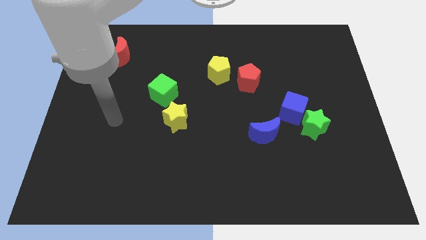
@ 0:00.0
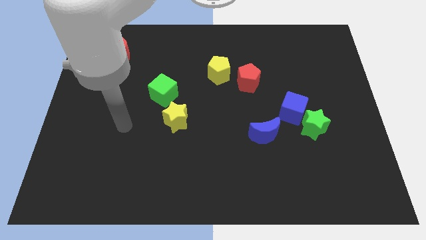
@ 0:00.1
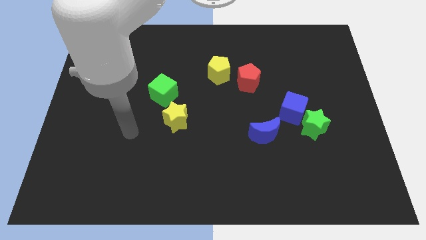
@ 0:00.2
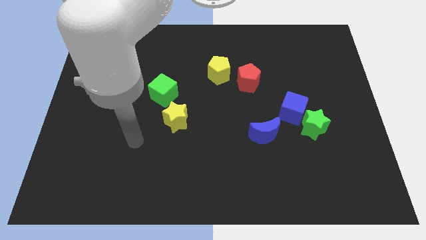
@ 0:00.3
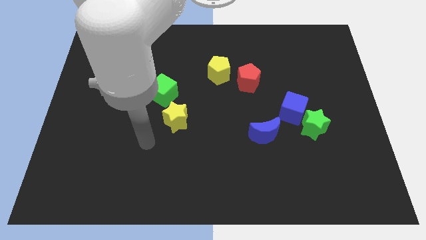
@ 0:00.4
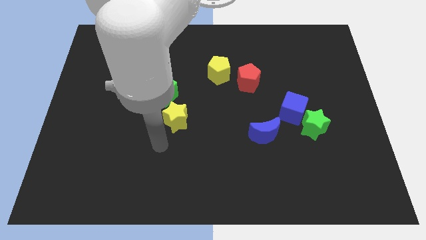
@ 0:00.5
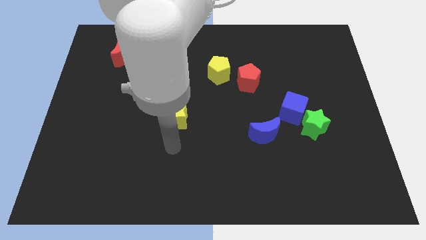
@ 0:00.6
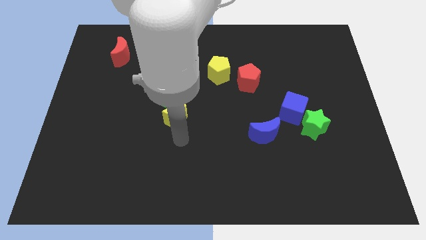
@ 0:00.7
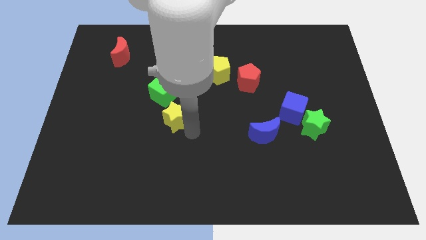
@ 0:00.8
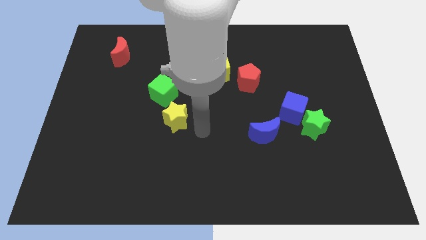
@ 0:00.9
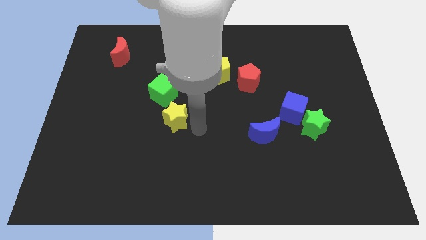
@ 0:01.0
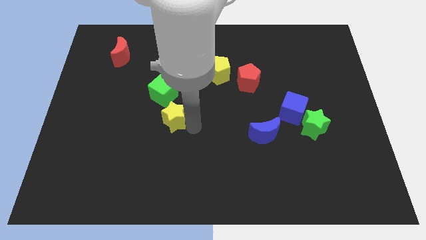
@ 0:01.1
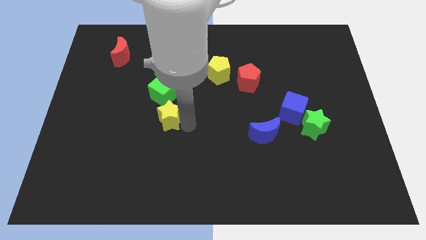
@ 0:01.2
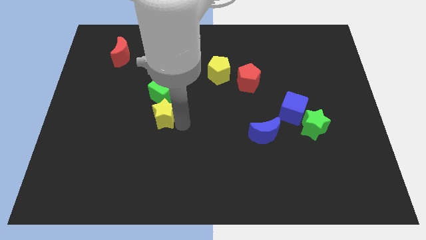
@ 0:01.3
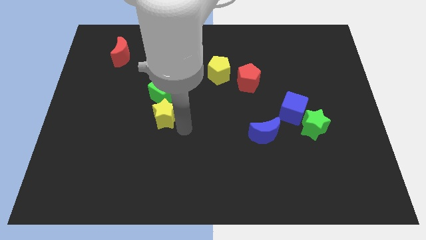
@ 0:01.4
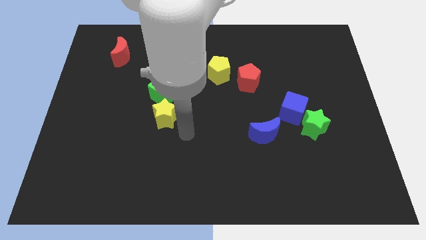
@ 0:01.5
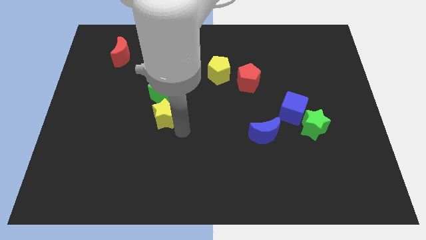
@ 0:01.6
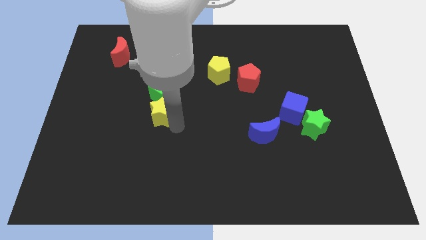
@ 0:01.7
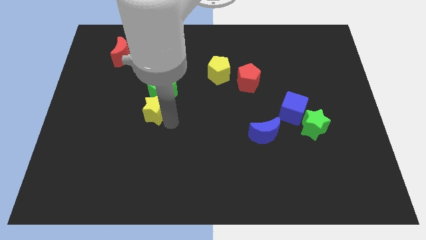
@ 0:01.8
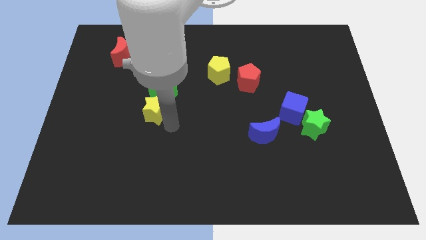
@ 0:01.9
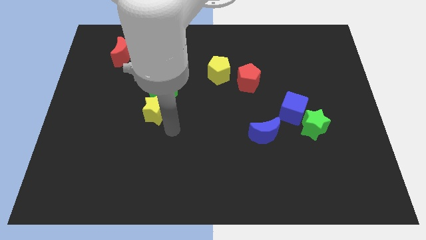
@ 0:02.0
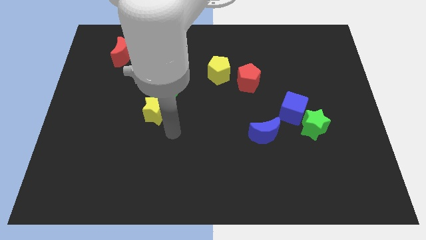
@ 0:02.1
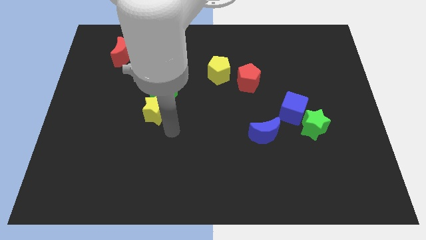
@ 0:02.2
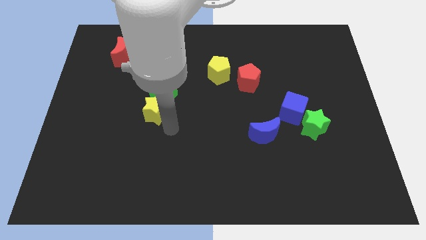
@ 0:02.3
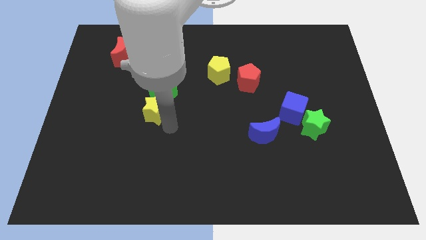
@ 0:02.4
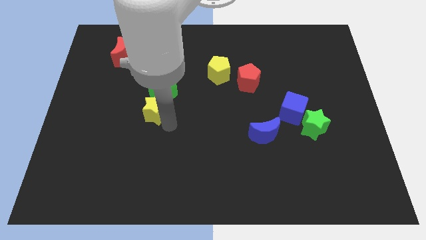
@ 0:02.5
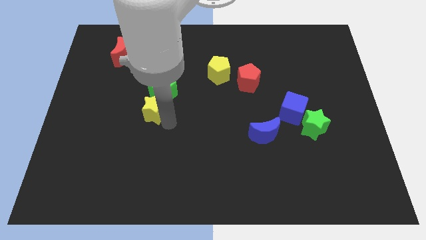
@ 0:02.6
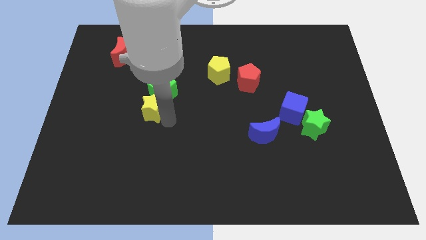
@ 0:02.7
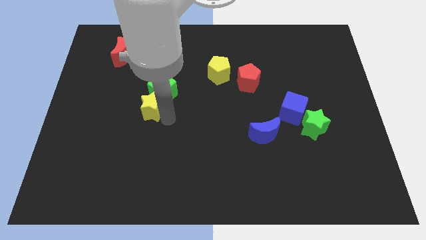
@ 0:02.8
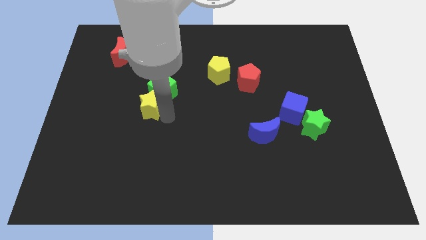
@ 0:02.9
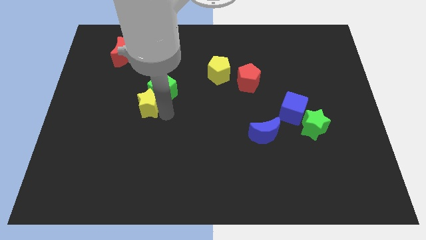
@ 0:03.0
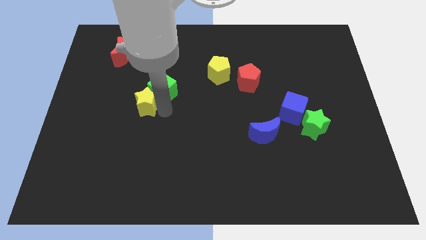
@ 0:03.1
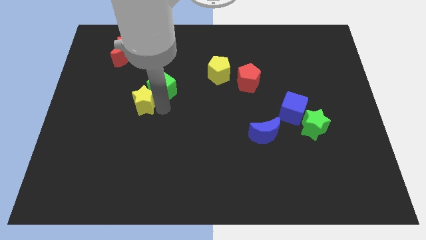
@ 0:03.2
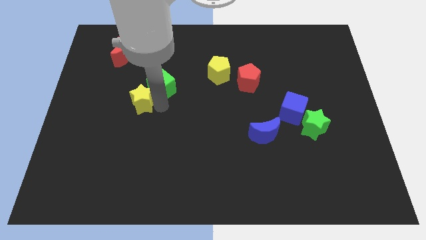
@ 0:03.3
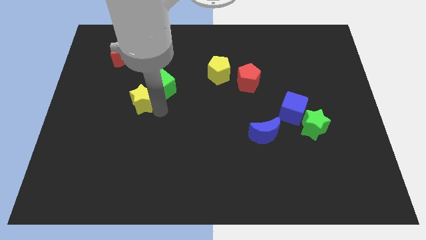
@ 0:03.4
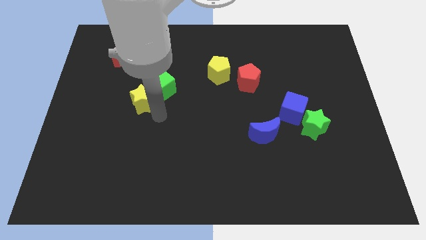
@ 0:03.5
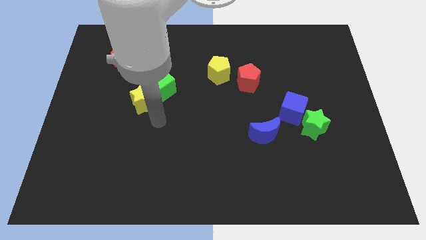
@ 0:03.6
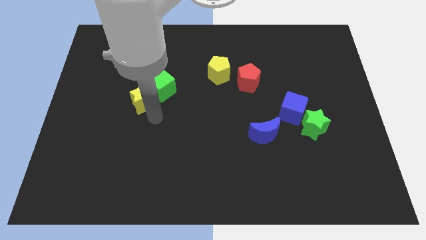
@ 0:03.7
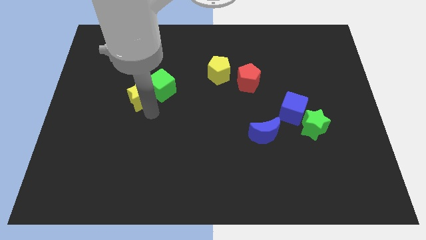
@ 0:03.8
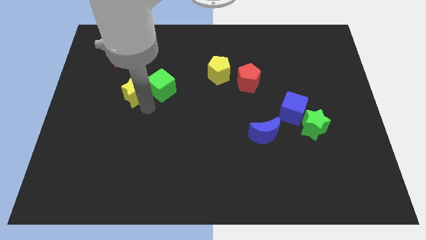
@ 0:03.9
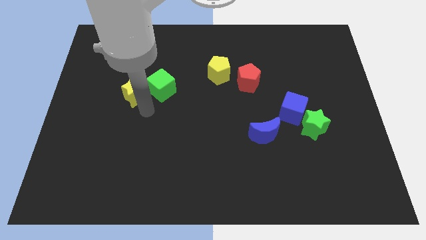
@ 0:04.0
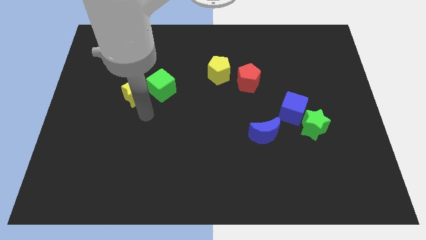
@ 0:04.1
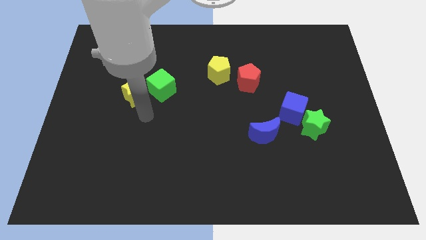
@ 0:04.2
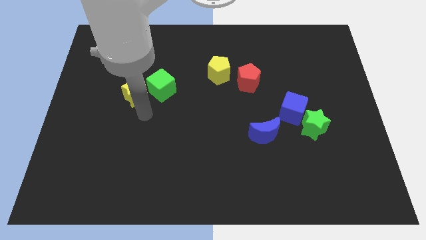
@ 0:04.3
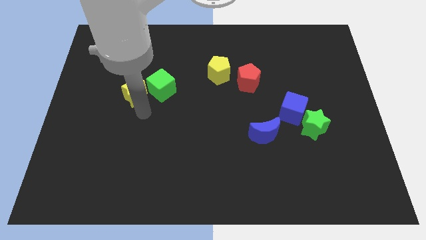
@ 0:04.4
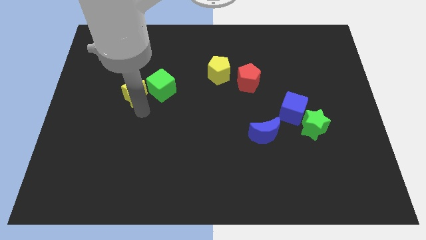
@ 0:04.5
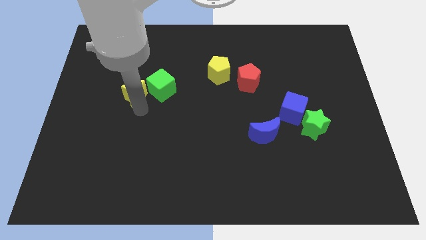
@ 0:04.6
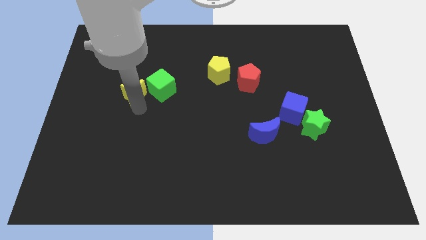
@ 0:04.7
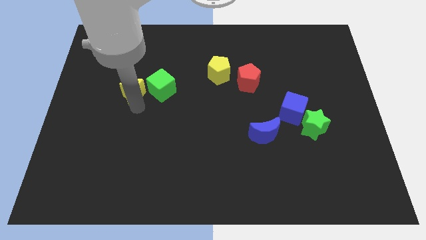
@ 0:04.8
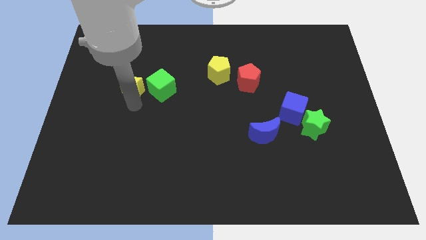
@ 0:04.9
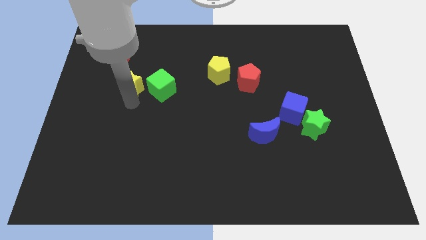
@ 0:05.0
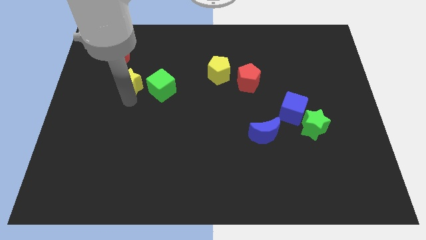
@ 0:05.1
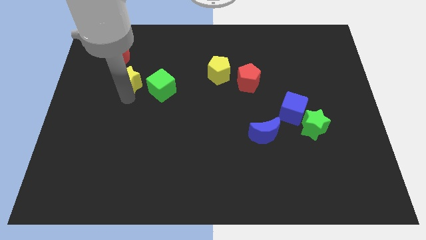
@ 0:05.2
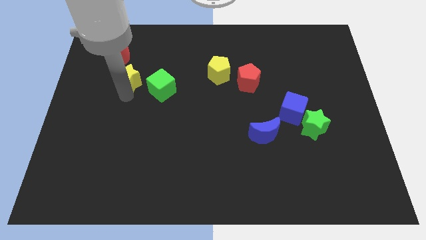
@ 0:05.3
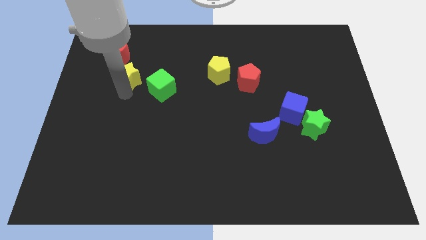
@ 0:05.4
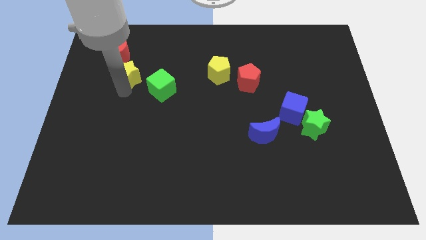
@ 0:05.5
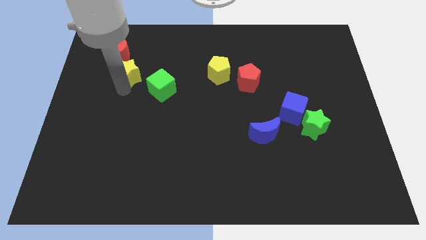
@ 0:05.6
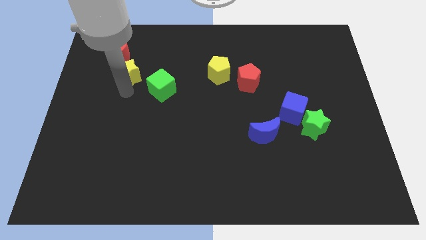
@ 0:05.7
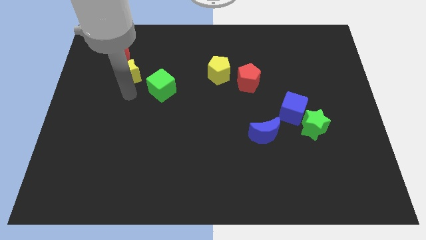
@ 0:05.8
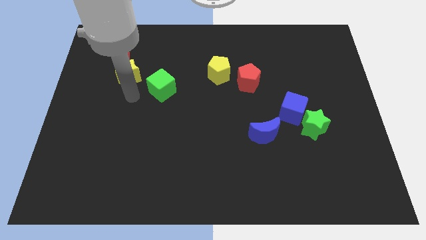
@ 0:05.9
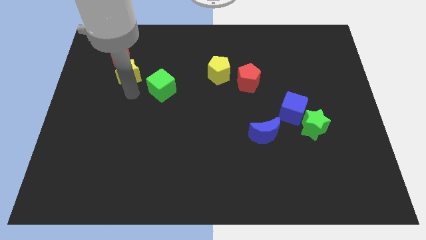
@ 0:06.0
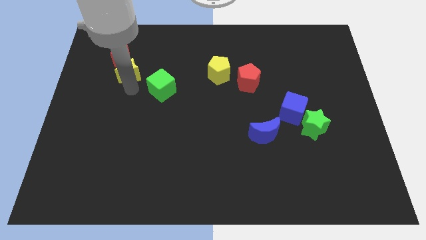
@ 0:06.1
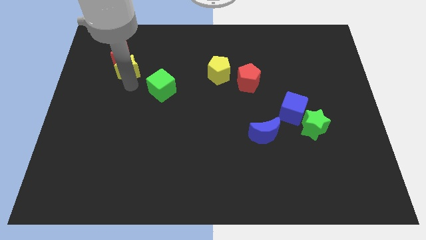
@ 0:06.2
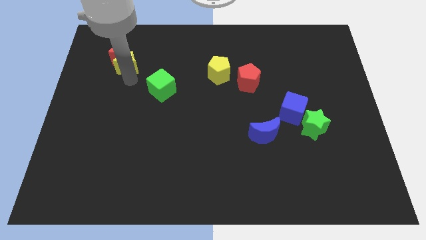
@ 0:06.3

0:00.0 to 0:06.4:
put the yellow star to the red moon

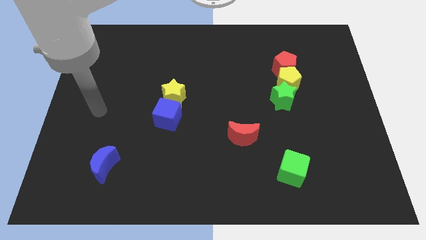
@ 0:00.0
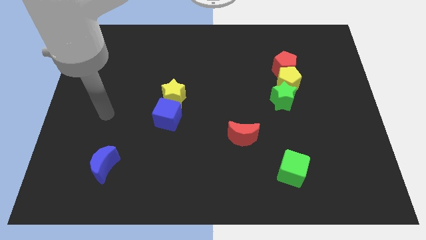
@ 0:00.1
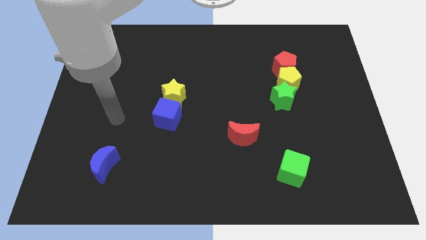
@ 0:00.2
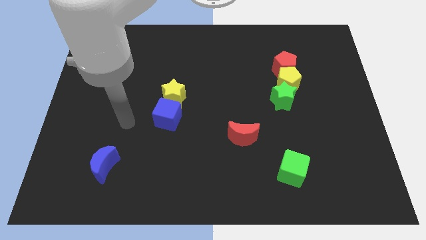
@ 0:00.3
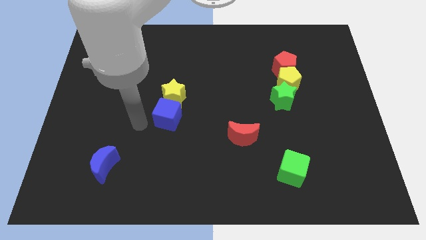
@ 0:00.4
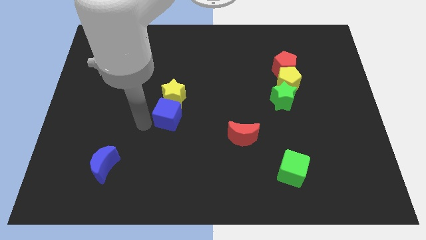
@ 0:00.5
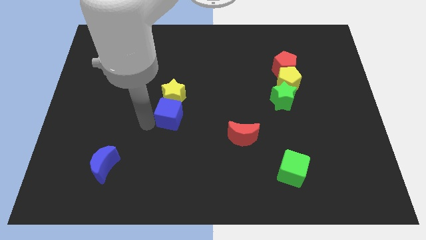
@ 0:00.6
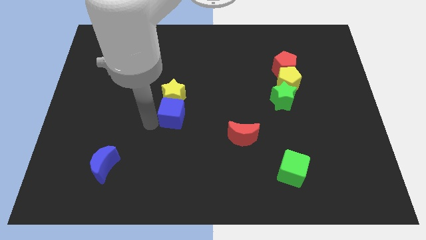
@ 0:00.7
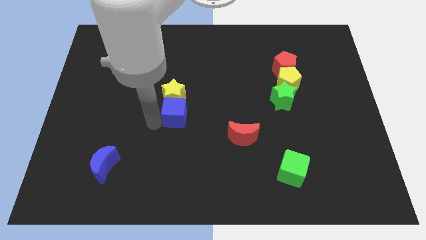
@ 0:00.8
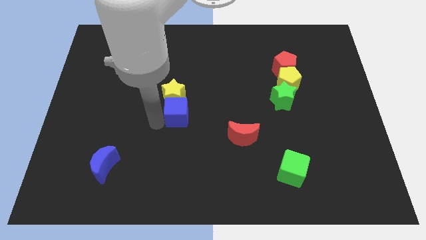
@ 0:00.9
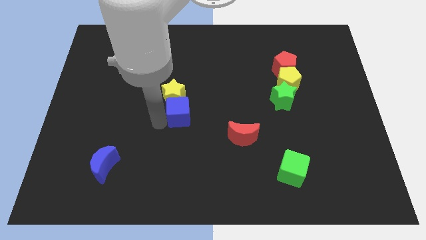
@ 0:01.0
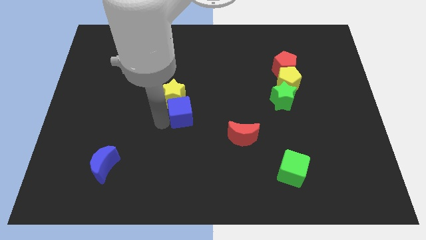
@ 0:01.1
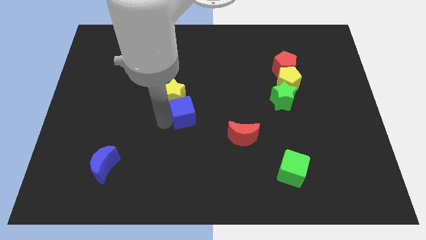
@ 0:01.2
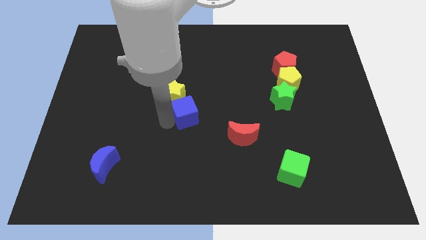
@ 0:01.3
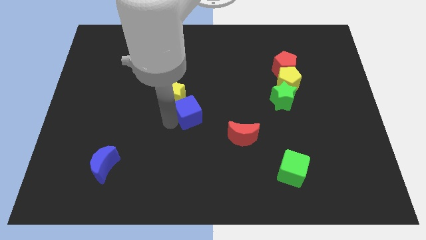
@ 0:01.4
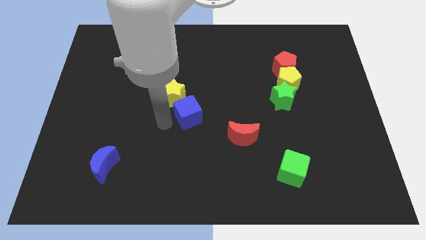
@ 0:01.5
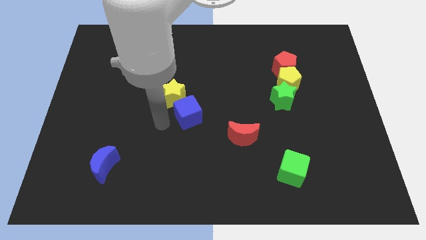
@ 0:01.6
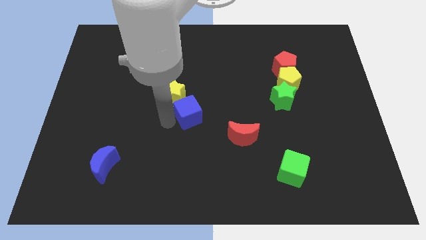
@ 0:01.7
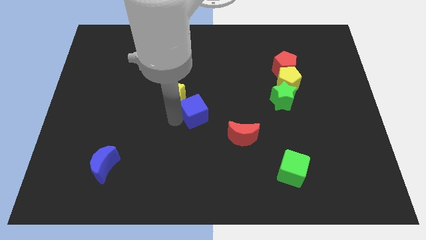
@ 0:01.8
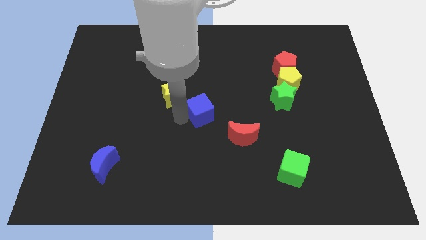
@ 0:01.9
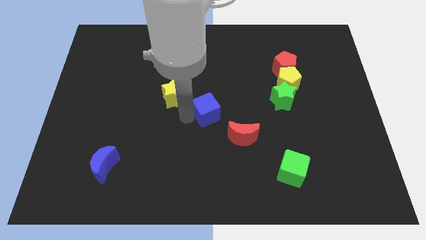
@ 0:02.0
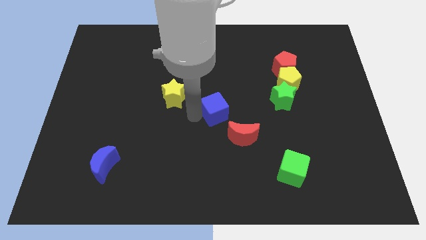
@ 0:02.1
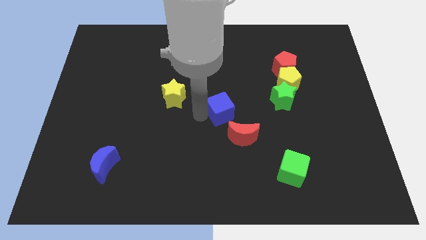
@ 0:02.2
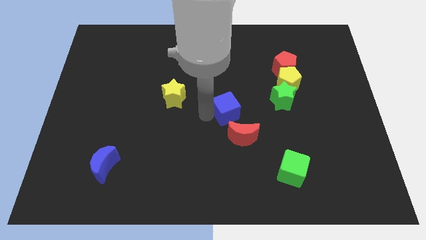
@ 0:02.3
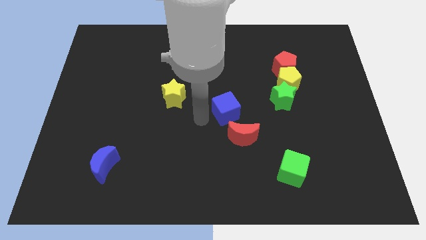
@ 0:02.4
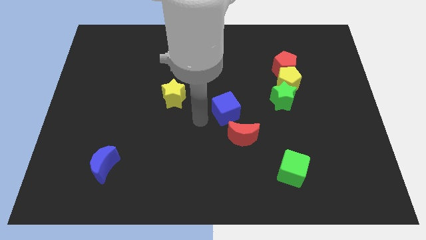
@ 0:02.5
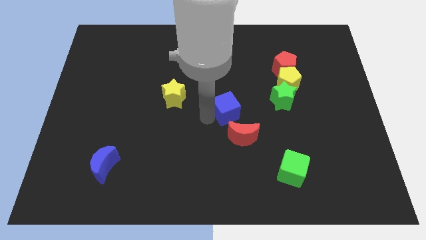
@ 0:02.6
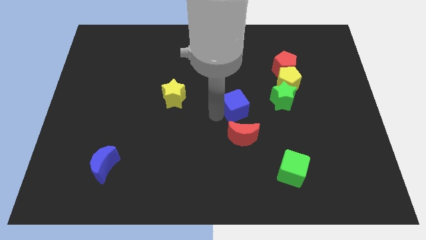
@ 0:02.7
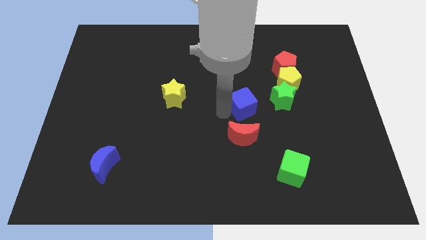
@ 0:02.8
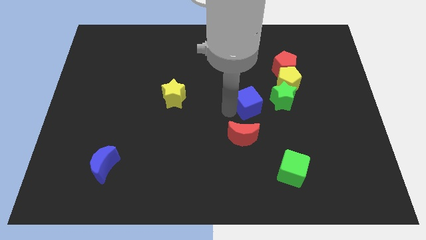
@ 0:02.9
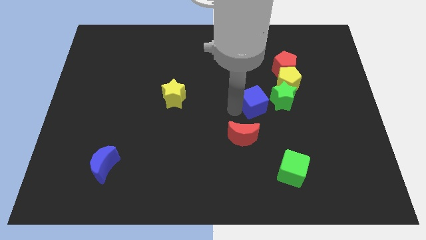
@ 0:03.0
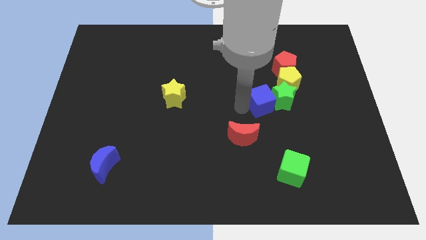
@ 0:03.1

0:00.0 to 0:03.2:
slide the blue cube to the green star
